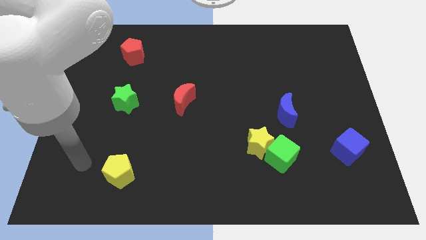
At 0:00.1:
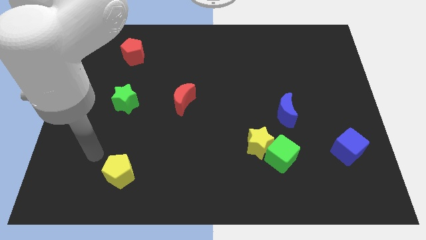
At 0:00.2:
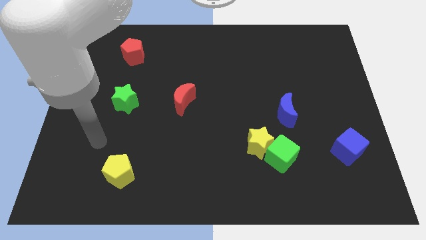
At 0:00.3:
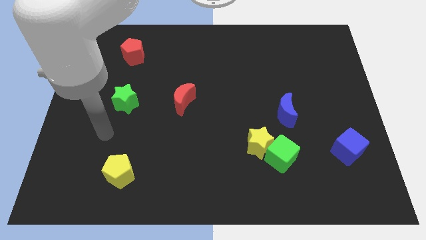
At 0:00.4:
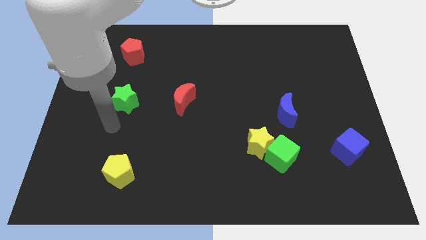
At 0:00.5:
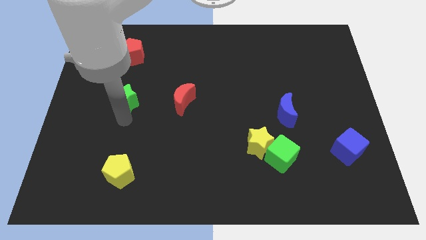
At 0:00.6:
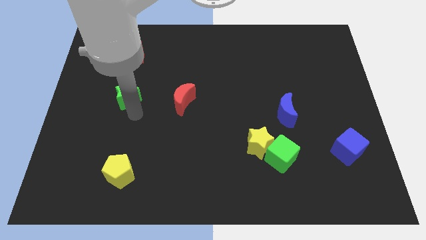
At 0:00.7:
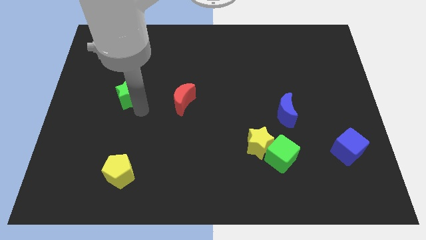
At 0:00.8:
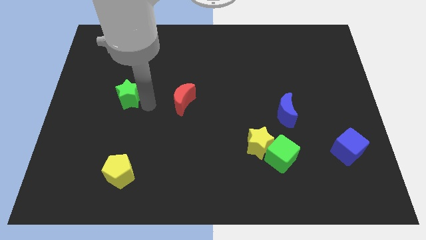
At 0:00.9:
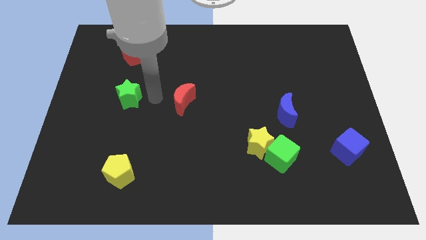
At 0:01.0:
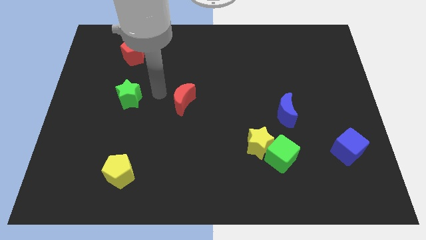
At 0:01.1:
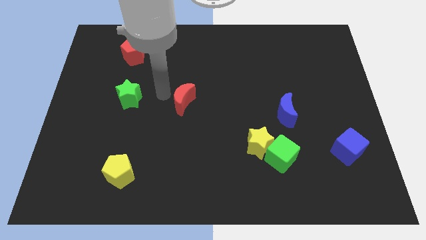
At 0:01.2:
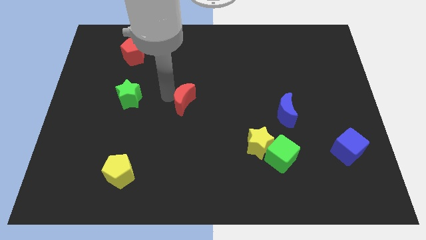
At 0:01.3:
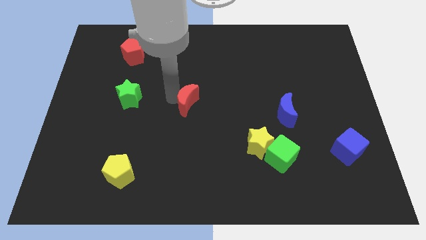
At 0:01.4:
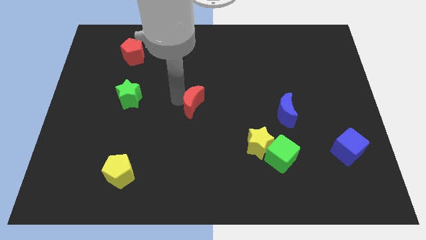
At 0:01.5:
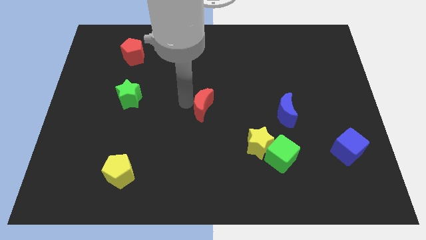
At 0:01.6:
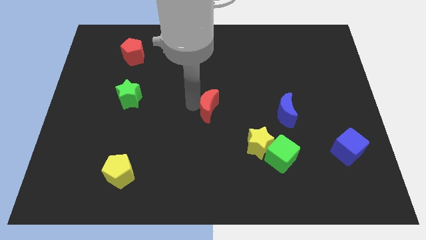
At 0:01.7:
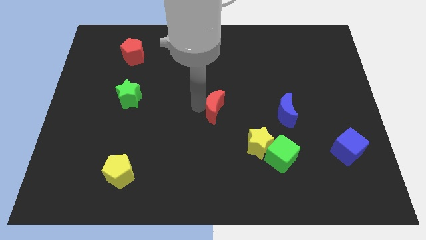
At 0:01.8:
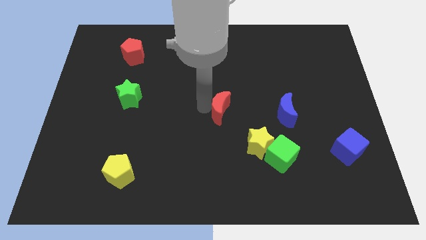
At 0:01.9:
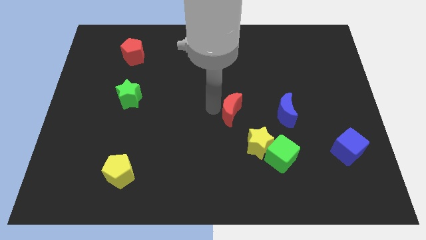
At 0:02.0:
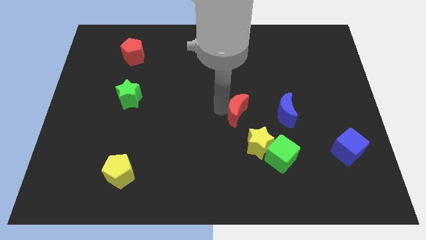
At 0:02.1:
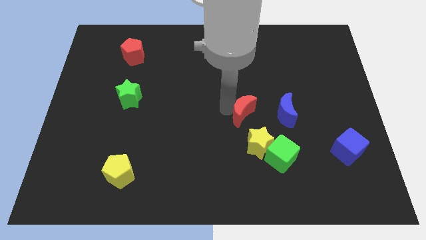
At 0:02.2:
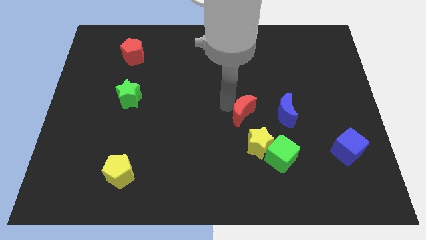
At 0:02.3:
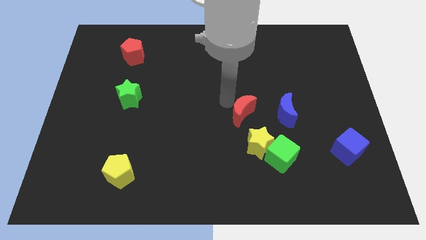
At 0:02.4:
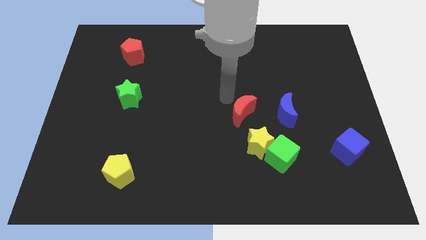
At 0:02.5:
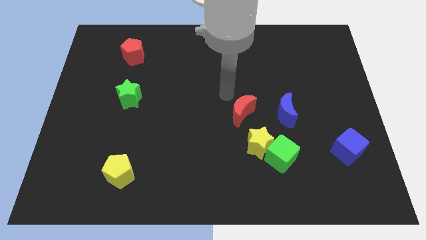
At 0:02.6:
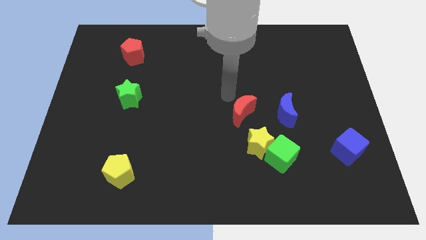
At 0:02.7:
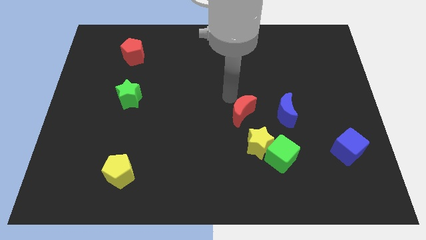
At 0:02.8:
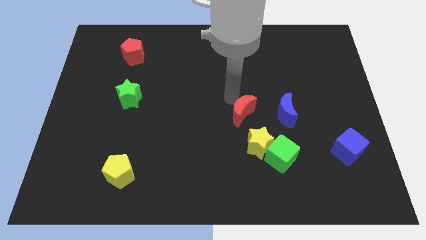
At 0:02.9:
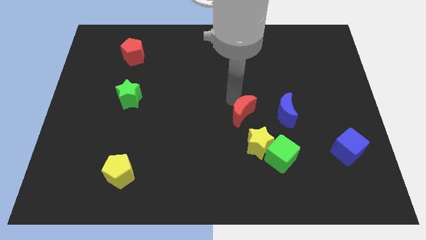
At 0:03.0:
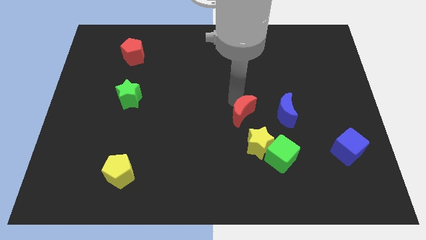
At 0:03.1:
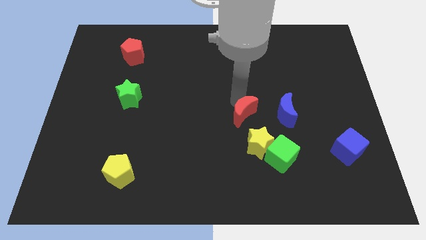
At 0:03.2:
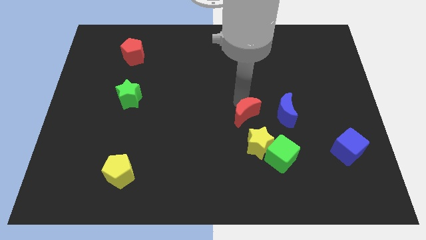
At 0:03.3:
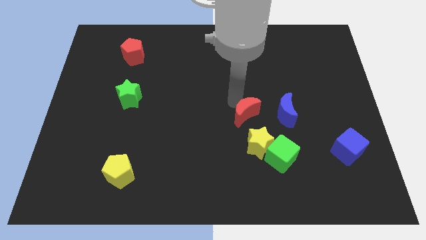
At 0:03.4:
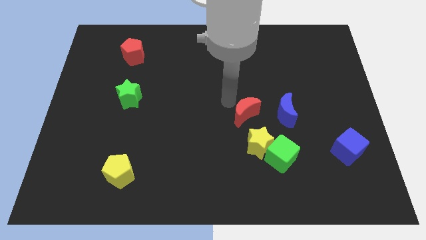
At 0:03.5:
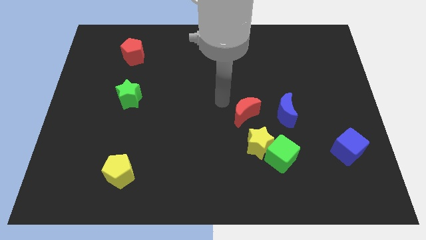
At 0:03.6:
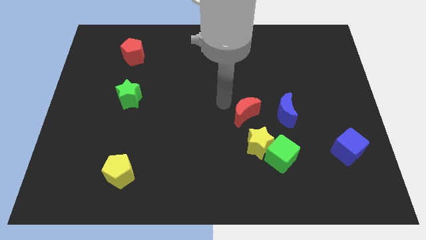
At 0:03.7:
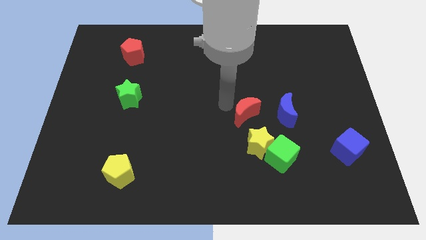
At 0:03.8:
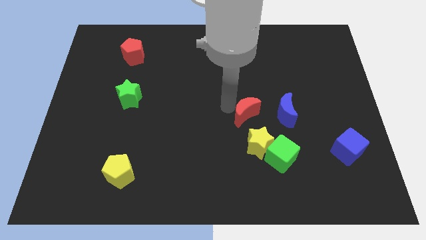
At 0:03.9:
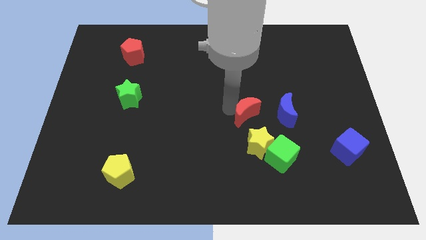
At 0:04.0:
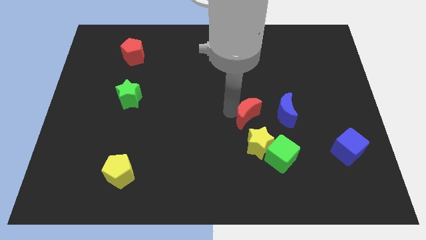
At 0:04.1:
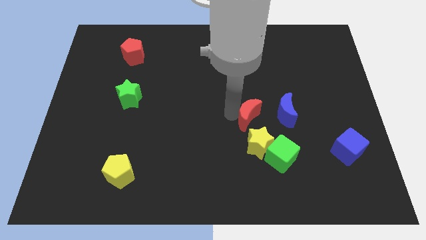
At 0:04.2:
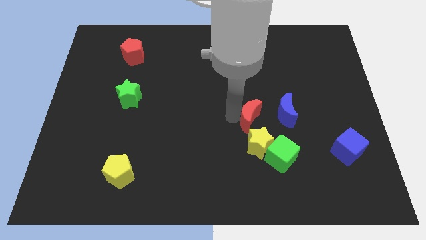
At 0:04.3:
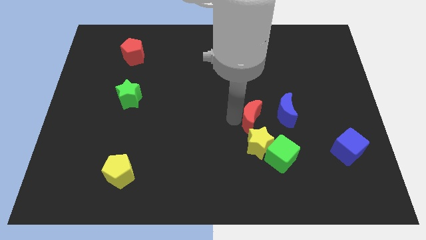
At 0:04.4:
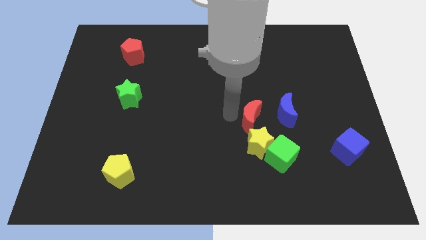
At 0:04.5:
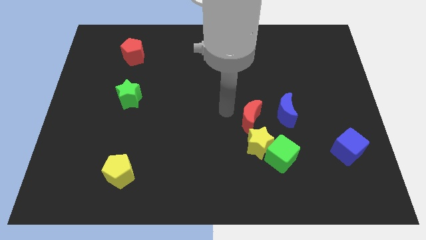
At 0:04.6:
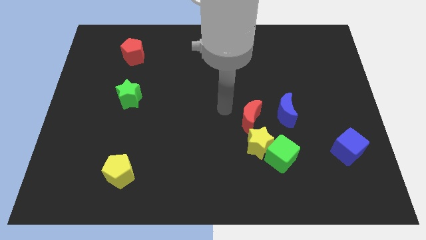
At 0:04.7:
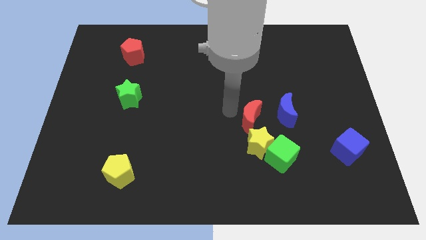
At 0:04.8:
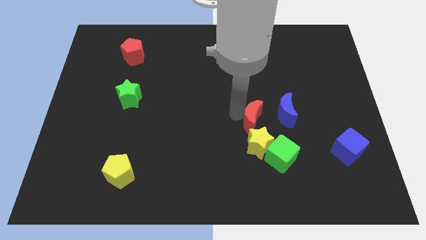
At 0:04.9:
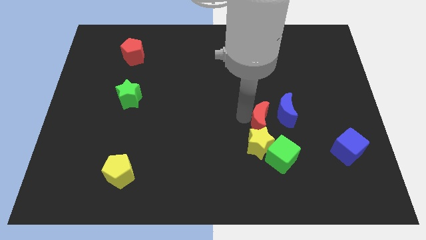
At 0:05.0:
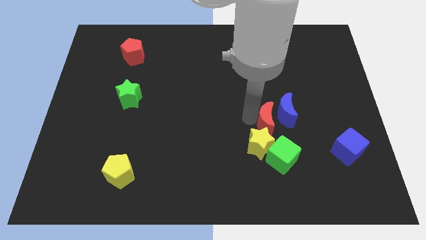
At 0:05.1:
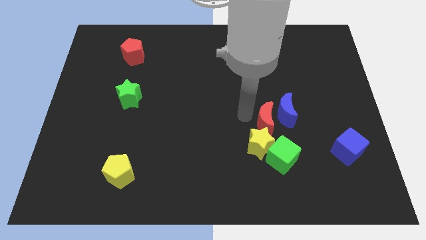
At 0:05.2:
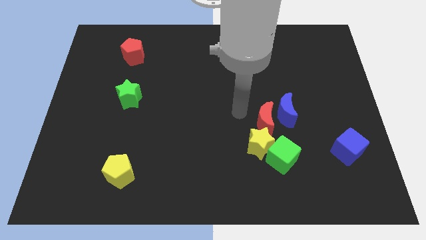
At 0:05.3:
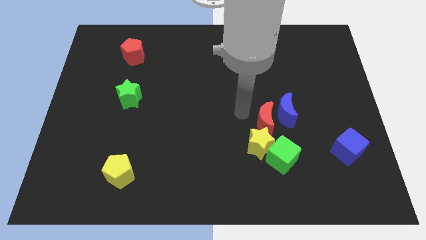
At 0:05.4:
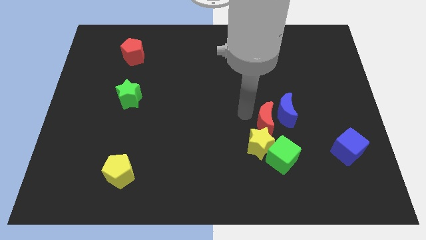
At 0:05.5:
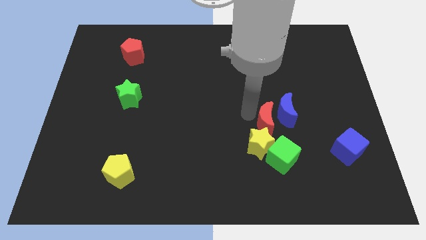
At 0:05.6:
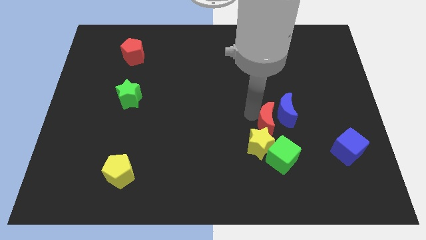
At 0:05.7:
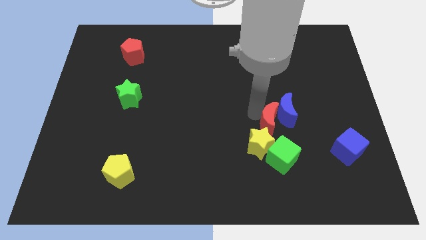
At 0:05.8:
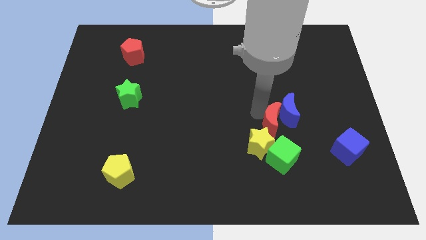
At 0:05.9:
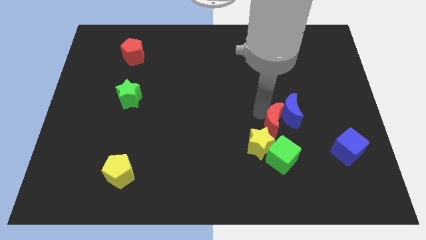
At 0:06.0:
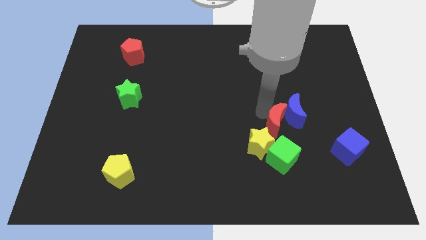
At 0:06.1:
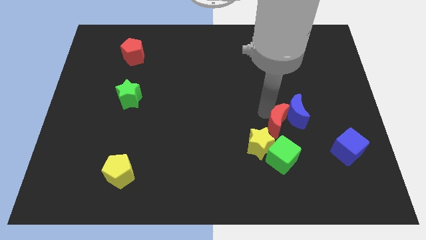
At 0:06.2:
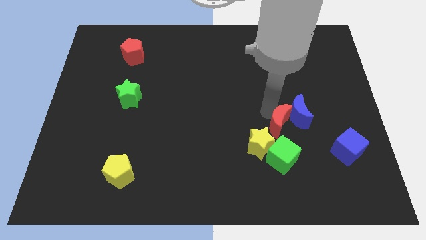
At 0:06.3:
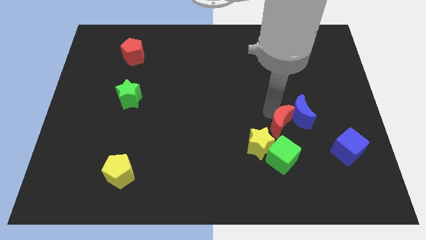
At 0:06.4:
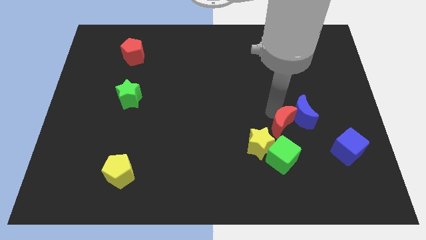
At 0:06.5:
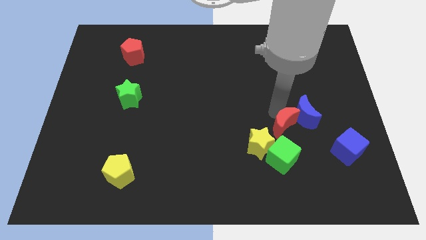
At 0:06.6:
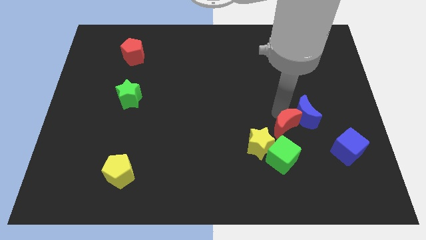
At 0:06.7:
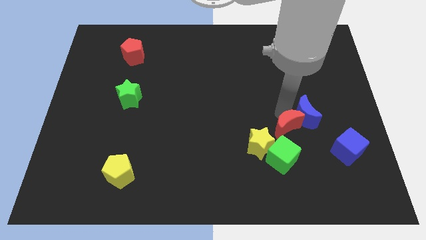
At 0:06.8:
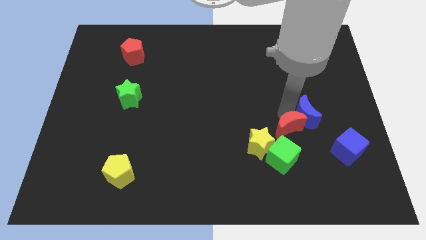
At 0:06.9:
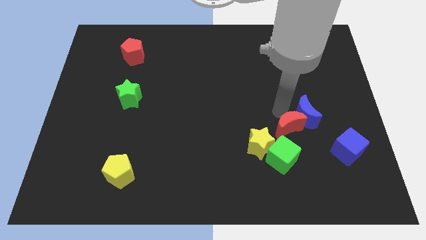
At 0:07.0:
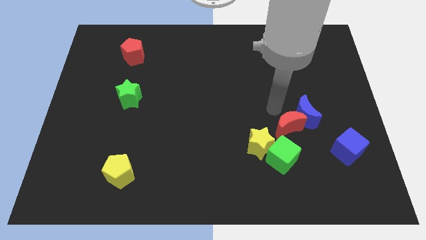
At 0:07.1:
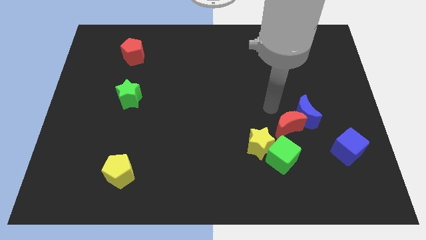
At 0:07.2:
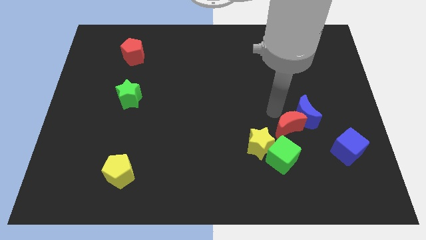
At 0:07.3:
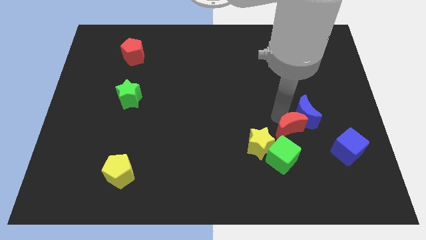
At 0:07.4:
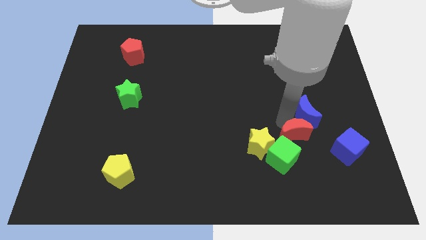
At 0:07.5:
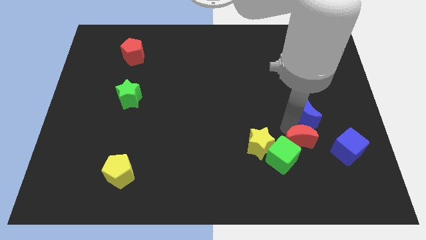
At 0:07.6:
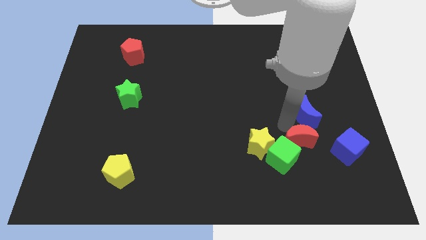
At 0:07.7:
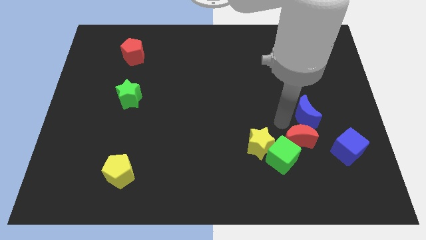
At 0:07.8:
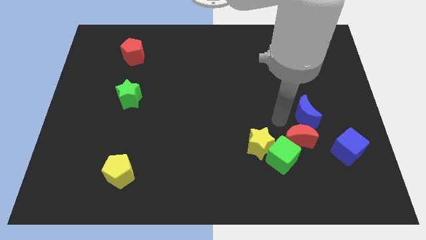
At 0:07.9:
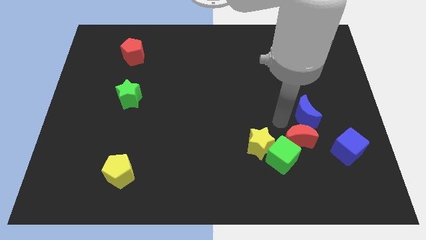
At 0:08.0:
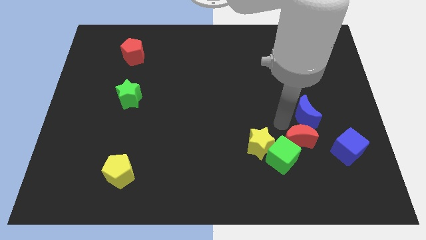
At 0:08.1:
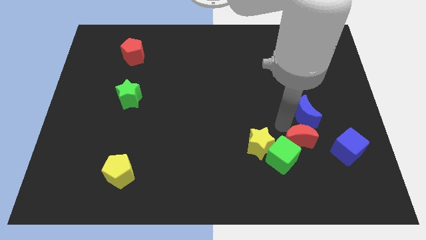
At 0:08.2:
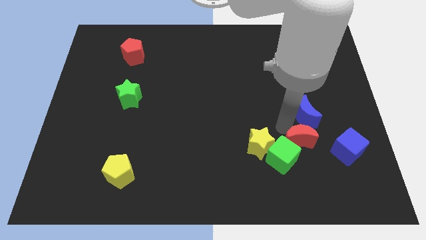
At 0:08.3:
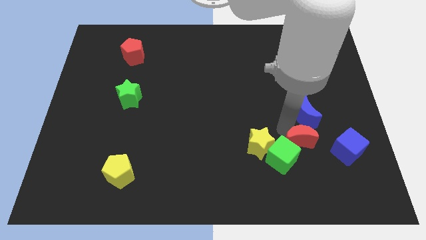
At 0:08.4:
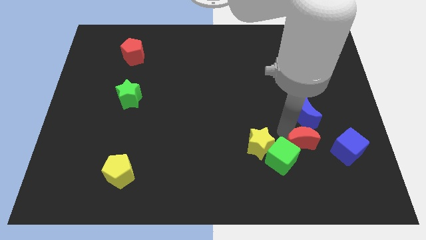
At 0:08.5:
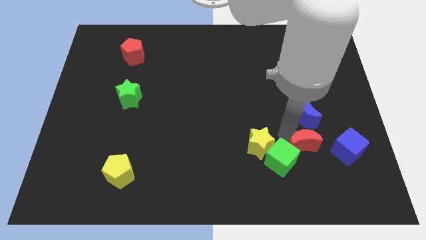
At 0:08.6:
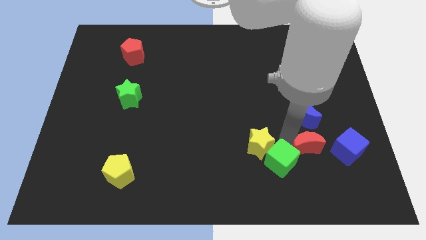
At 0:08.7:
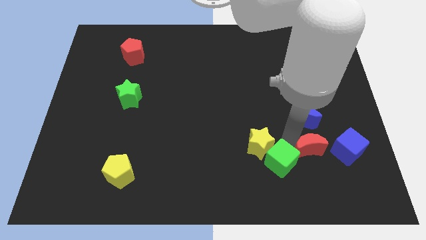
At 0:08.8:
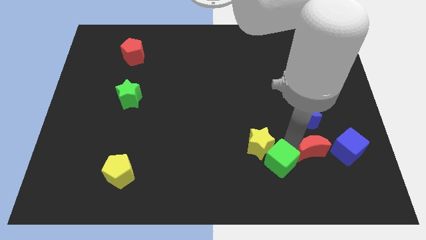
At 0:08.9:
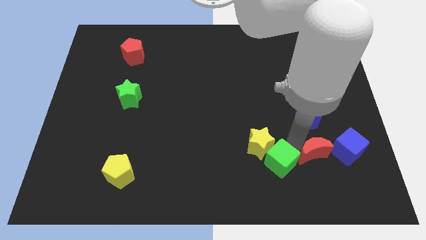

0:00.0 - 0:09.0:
slide the red moon to the bottom left of the blue cube
